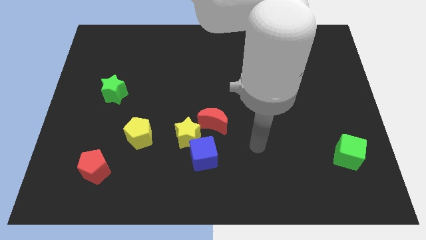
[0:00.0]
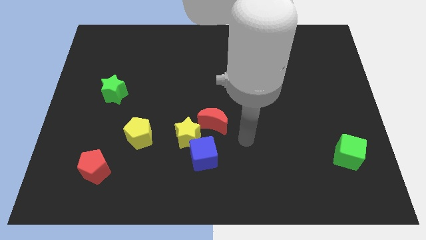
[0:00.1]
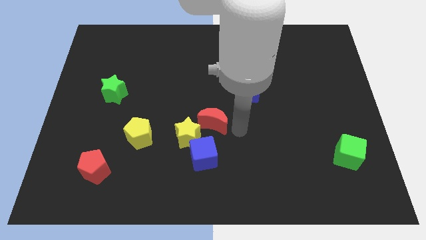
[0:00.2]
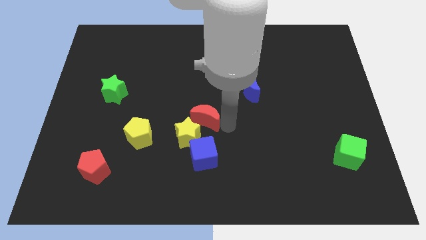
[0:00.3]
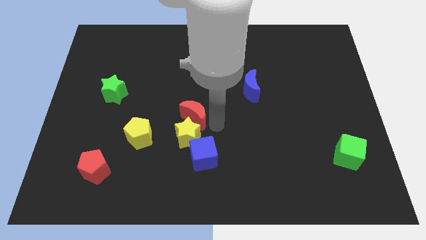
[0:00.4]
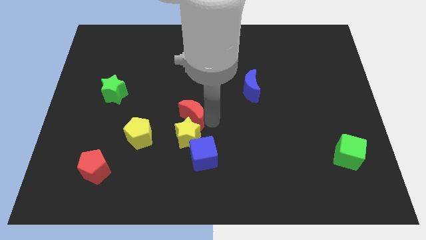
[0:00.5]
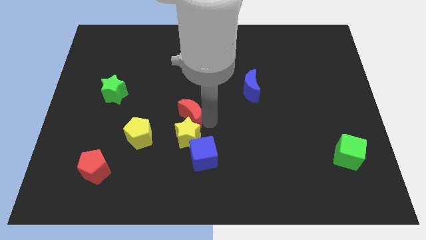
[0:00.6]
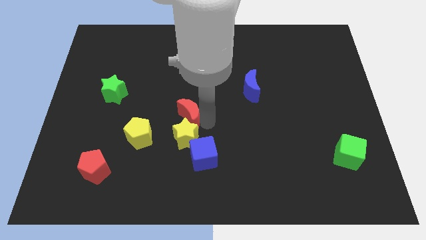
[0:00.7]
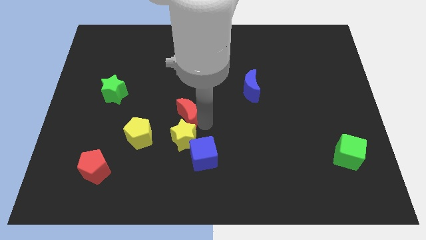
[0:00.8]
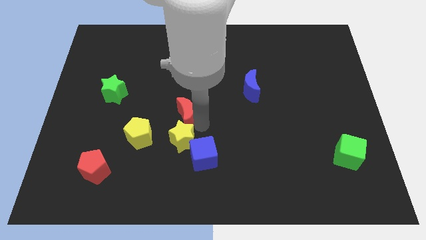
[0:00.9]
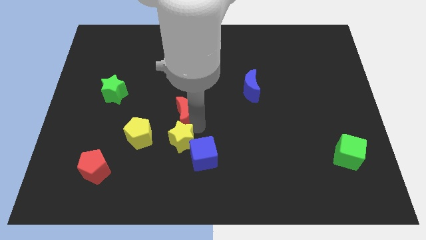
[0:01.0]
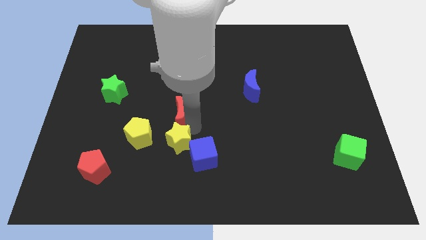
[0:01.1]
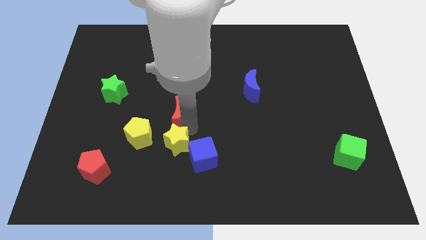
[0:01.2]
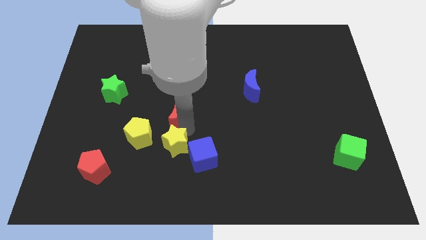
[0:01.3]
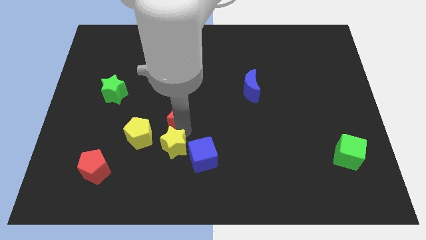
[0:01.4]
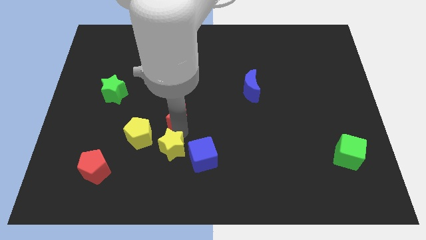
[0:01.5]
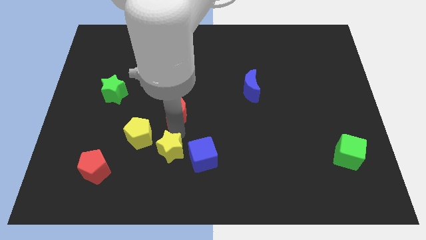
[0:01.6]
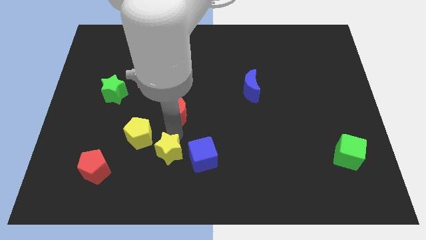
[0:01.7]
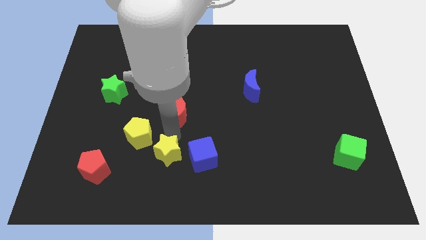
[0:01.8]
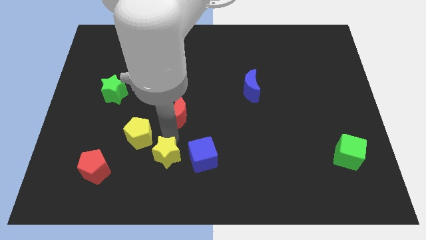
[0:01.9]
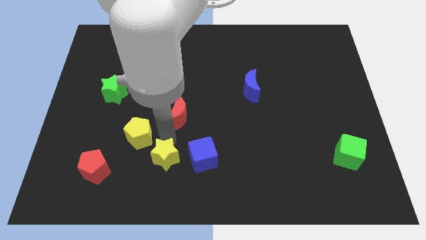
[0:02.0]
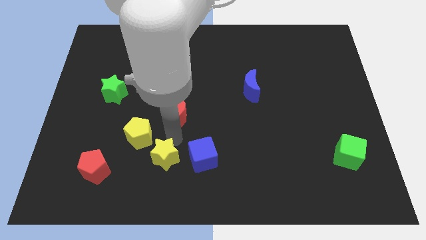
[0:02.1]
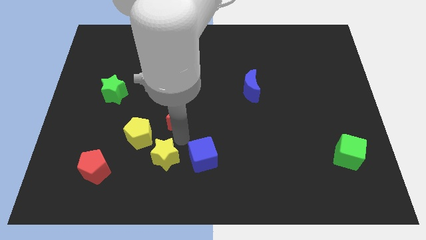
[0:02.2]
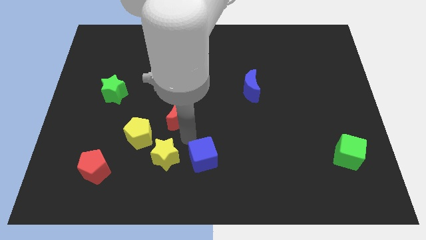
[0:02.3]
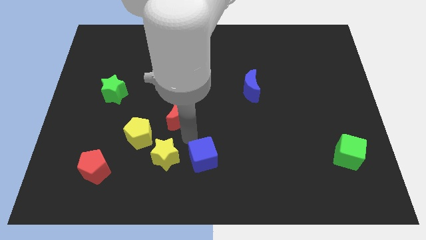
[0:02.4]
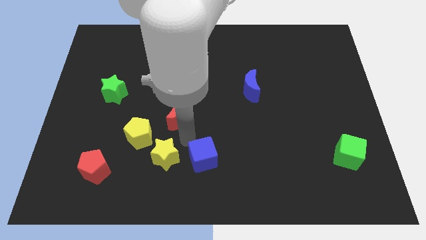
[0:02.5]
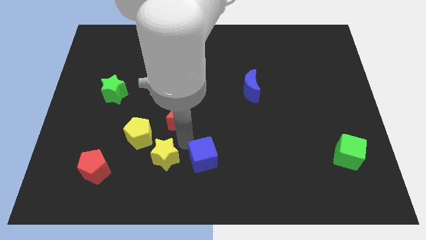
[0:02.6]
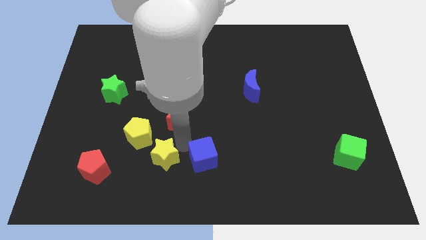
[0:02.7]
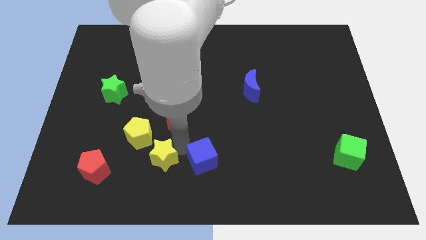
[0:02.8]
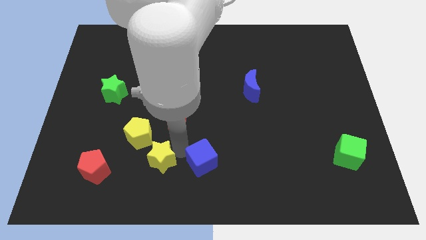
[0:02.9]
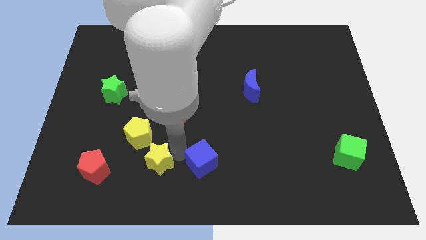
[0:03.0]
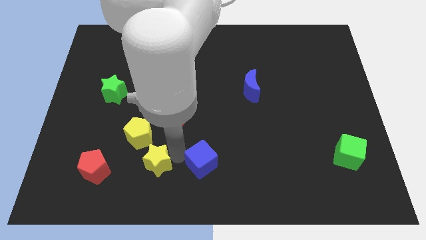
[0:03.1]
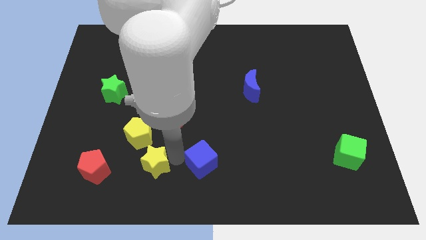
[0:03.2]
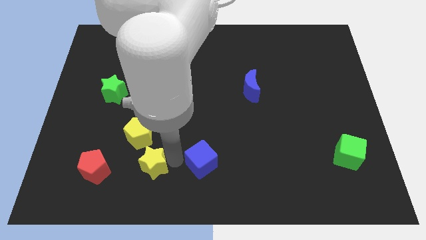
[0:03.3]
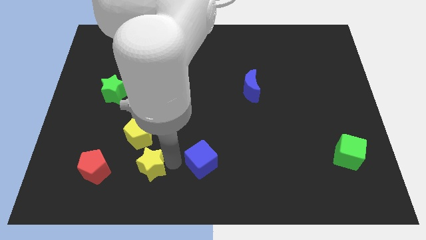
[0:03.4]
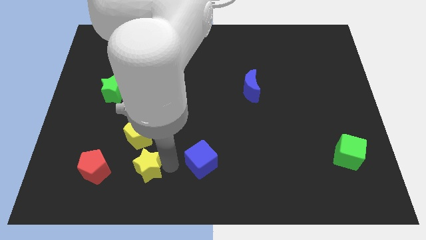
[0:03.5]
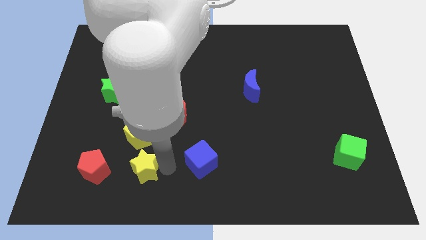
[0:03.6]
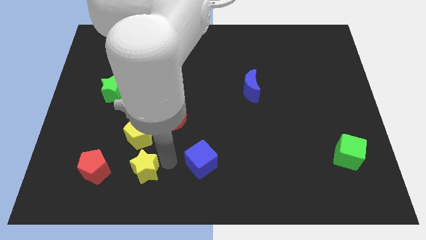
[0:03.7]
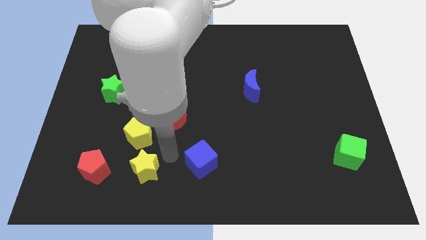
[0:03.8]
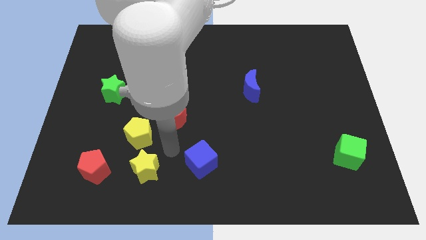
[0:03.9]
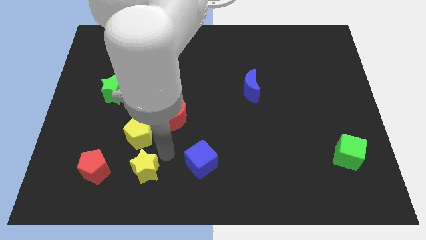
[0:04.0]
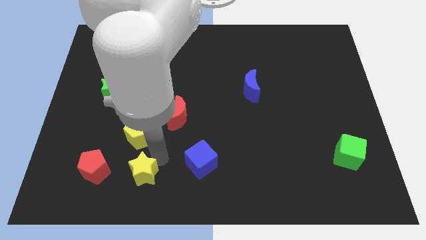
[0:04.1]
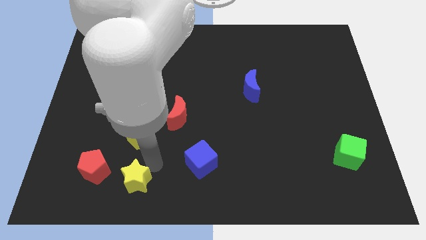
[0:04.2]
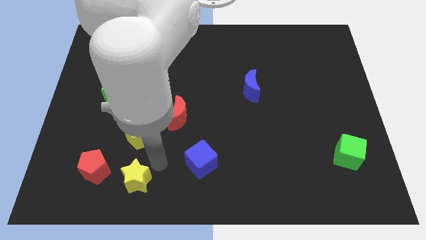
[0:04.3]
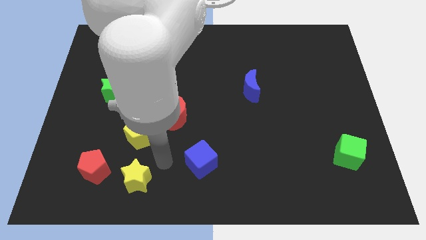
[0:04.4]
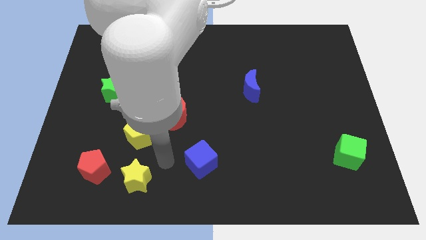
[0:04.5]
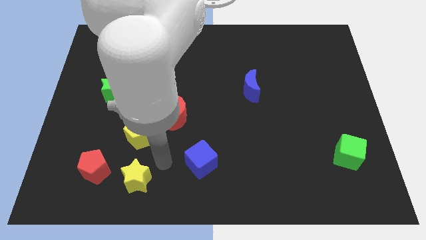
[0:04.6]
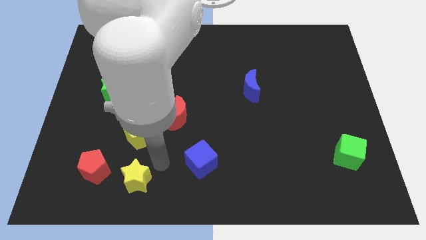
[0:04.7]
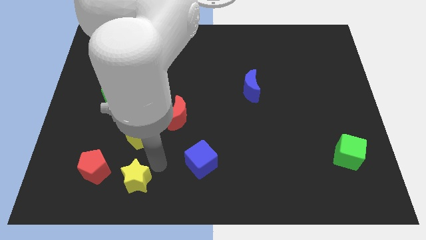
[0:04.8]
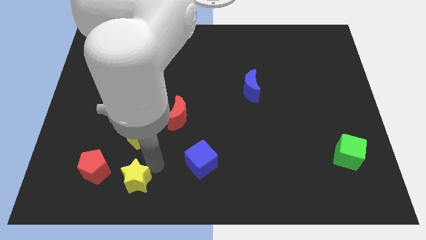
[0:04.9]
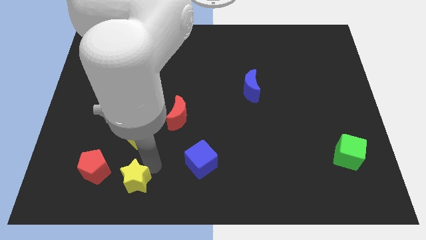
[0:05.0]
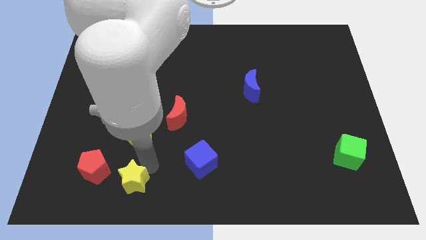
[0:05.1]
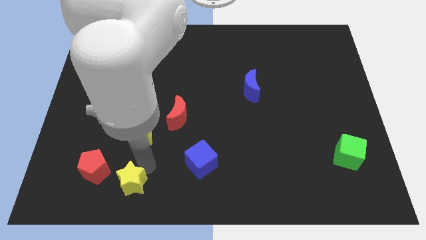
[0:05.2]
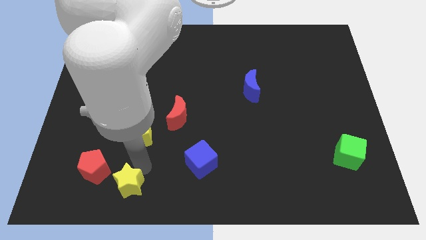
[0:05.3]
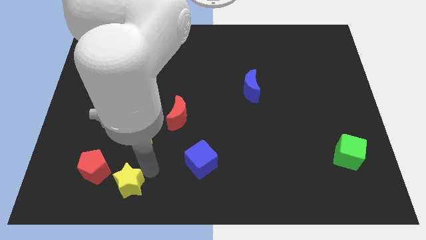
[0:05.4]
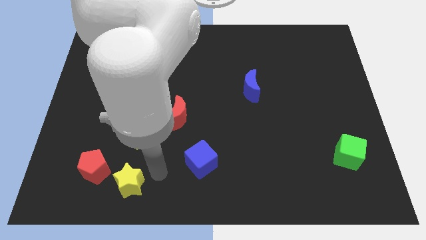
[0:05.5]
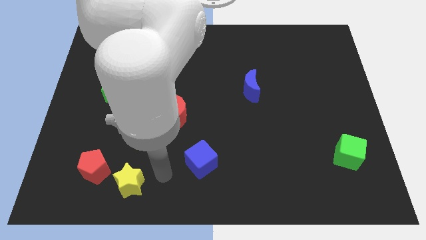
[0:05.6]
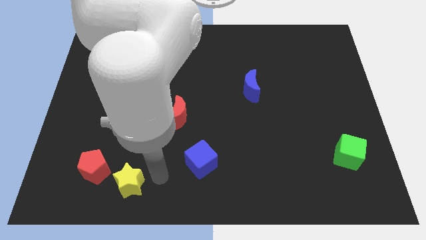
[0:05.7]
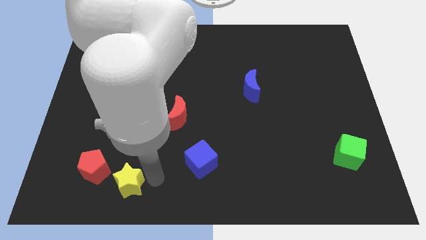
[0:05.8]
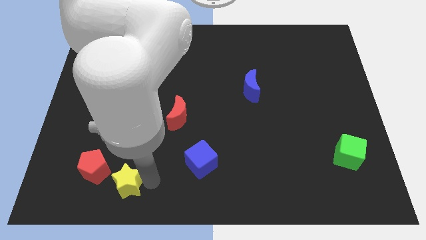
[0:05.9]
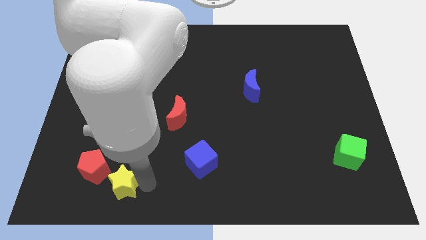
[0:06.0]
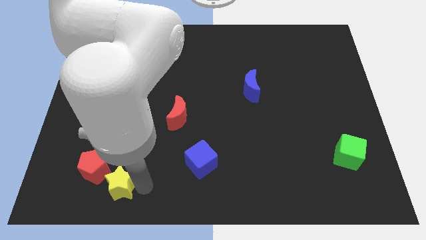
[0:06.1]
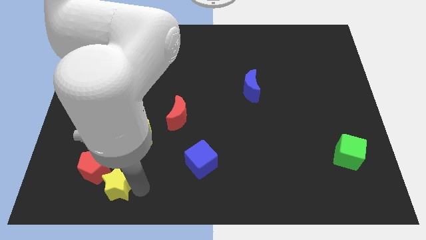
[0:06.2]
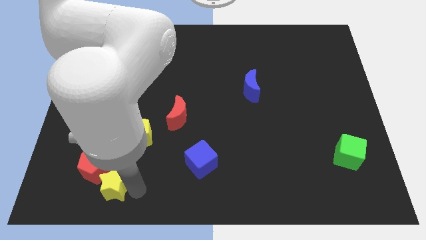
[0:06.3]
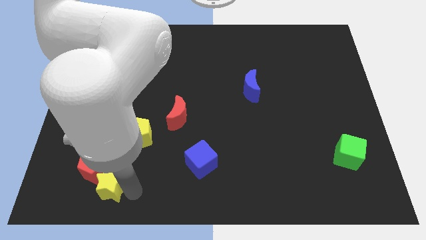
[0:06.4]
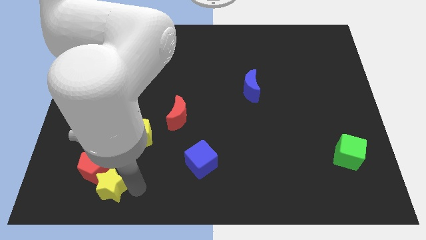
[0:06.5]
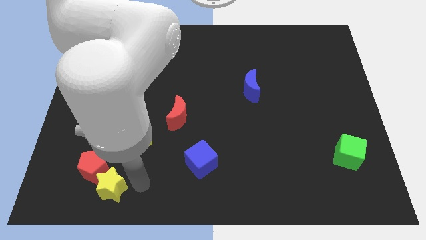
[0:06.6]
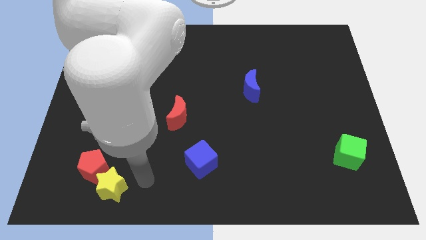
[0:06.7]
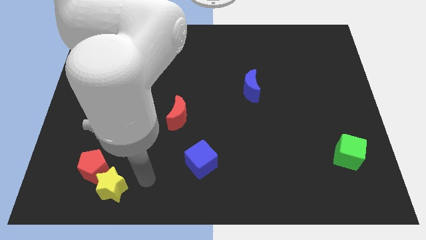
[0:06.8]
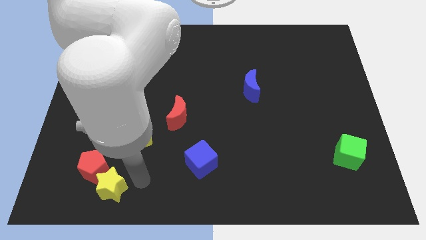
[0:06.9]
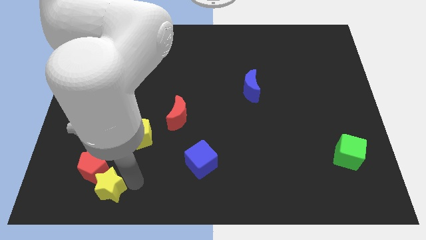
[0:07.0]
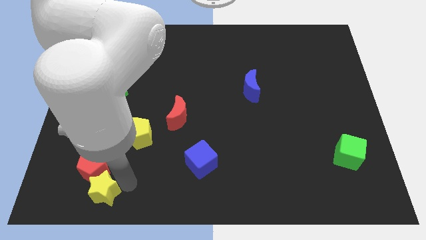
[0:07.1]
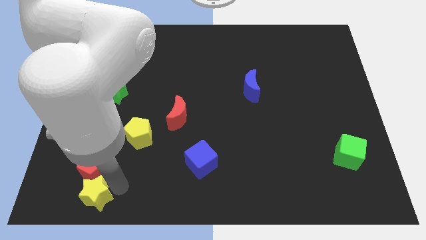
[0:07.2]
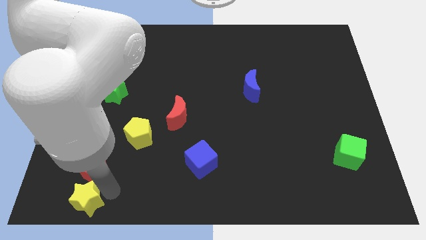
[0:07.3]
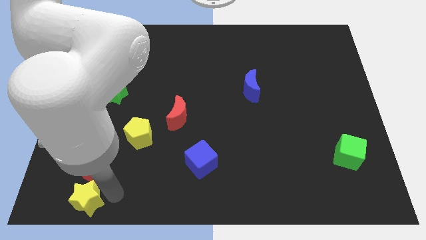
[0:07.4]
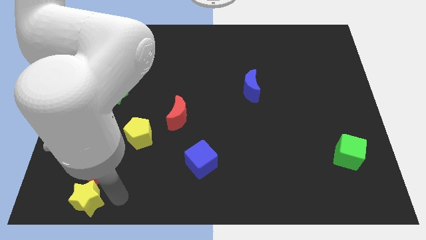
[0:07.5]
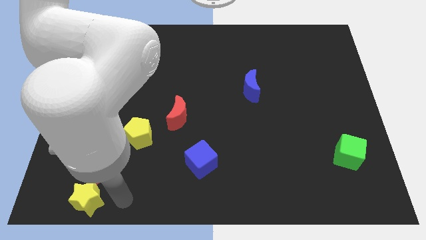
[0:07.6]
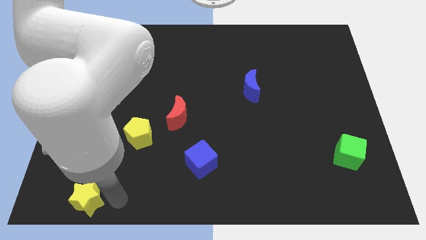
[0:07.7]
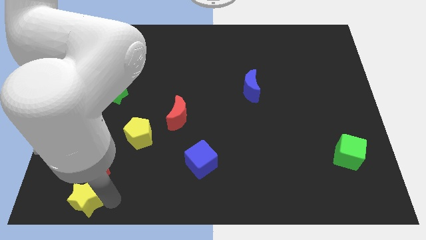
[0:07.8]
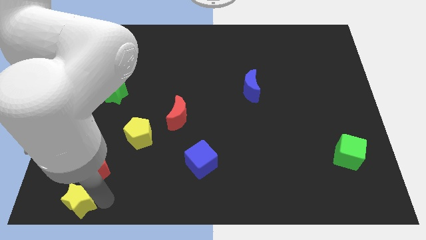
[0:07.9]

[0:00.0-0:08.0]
push the yellow star to the bottom left
